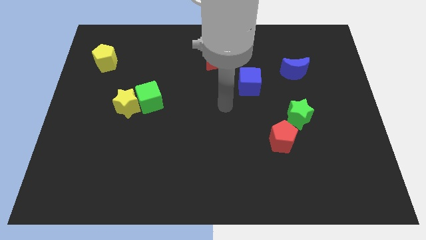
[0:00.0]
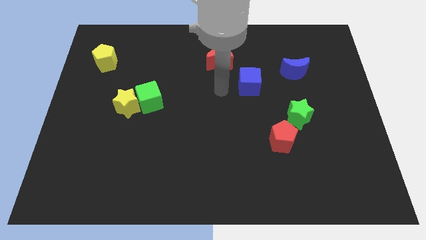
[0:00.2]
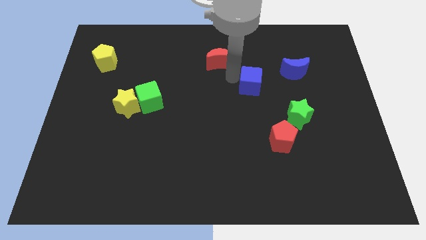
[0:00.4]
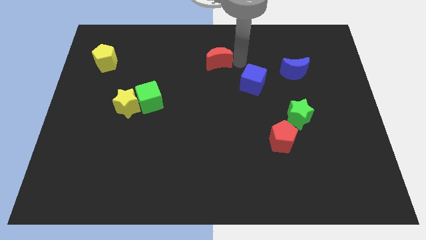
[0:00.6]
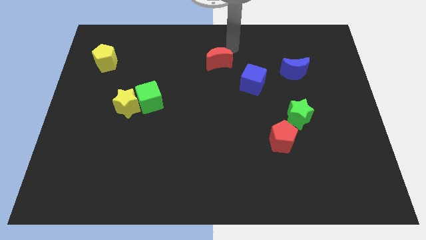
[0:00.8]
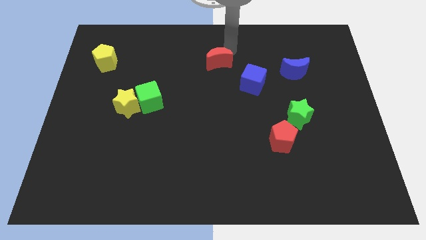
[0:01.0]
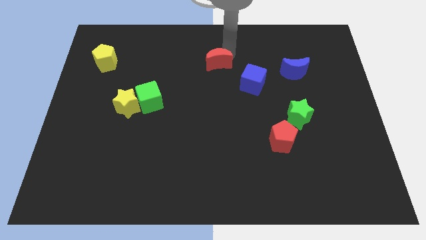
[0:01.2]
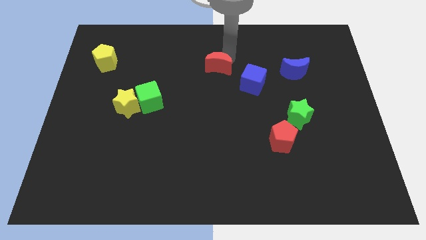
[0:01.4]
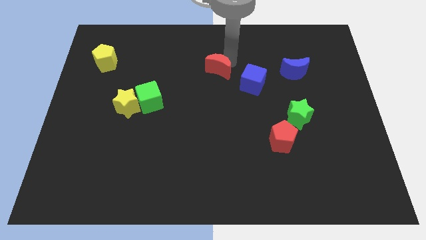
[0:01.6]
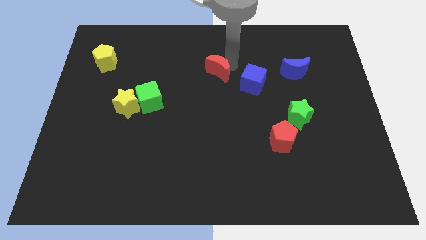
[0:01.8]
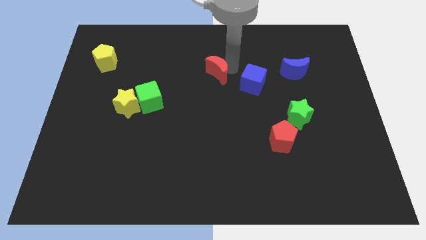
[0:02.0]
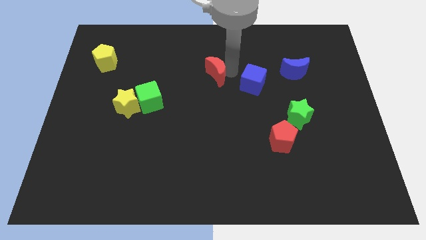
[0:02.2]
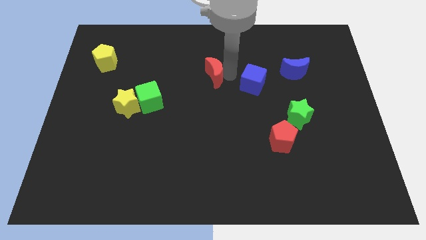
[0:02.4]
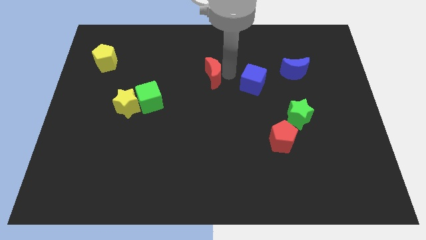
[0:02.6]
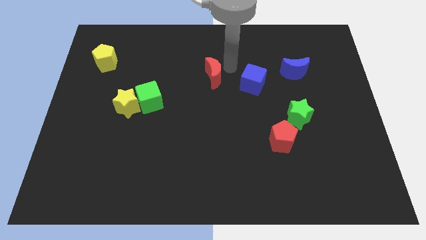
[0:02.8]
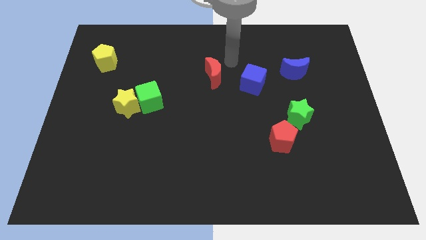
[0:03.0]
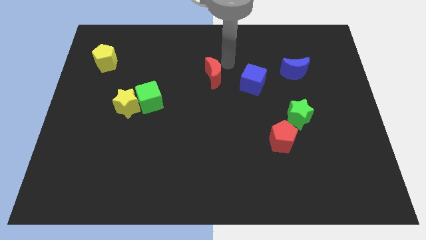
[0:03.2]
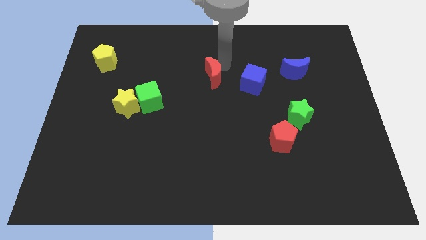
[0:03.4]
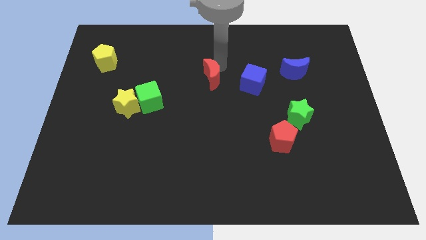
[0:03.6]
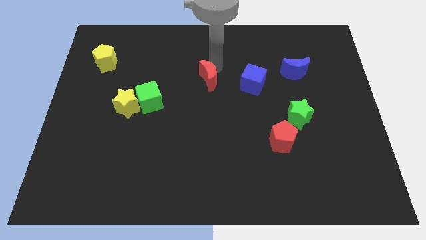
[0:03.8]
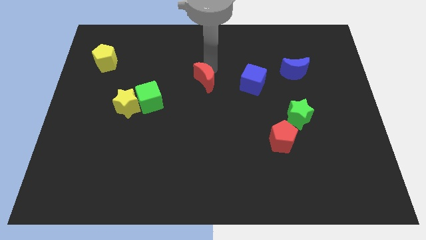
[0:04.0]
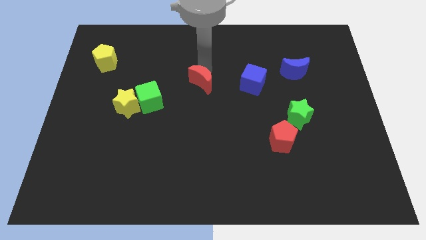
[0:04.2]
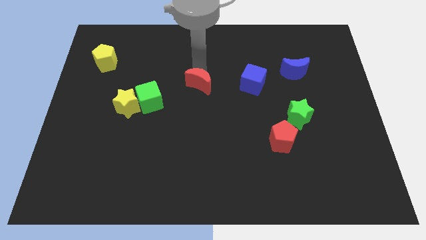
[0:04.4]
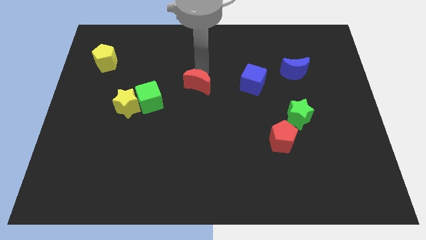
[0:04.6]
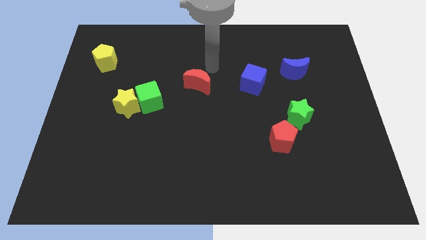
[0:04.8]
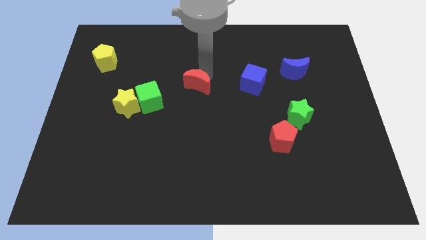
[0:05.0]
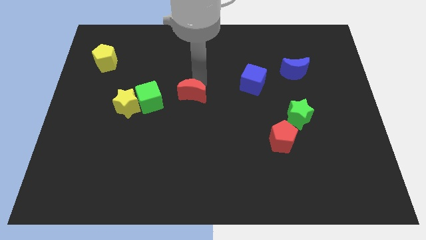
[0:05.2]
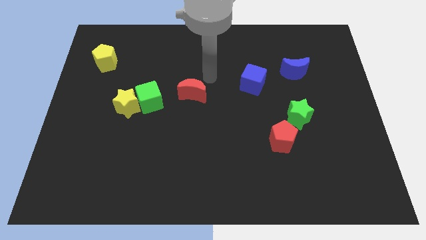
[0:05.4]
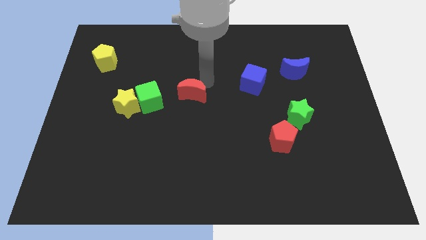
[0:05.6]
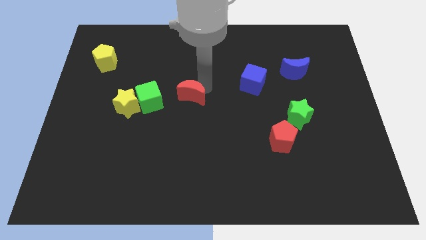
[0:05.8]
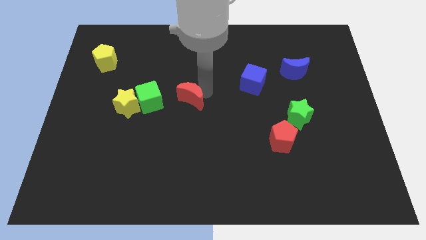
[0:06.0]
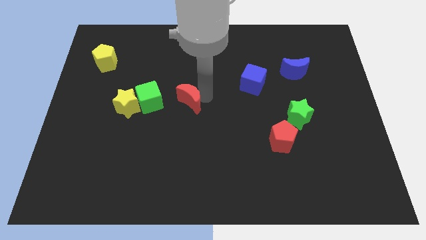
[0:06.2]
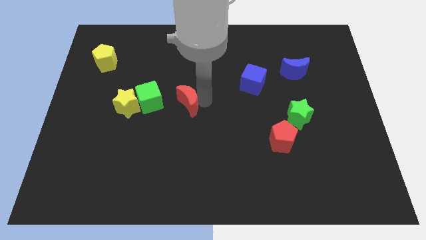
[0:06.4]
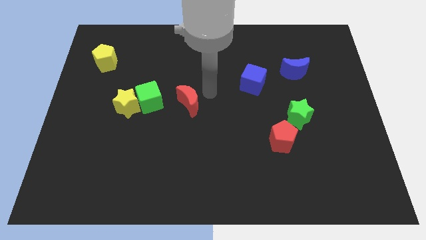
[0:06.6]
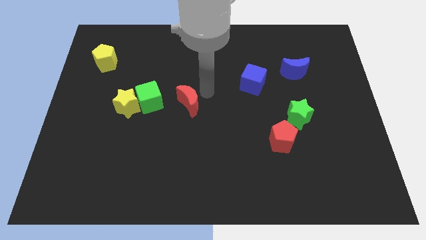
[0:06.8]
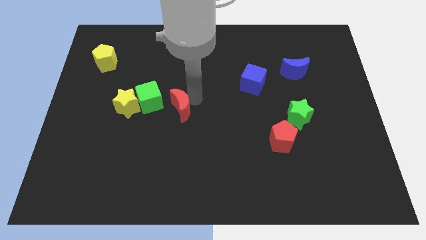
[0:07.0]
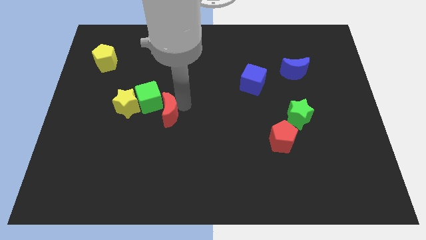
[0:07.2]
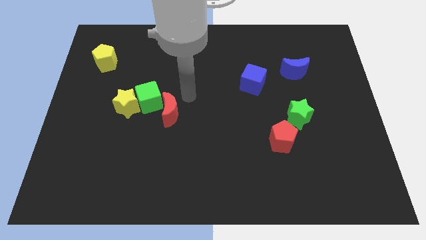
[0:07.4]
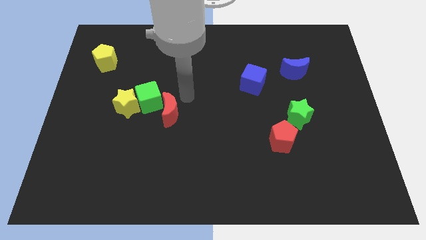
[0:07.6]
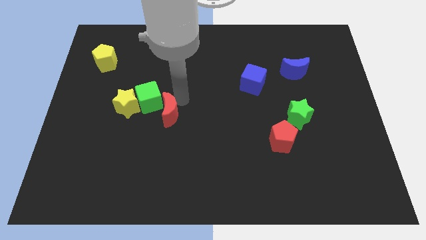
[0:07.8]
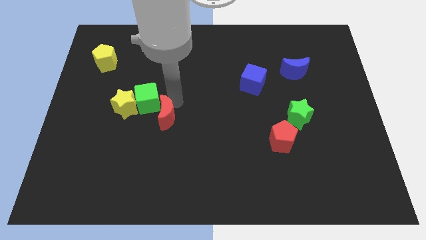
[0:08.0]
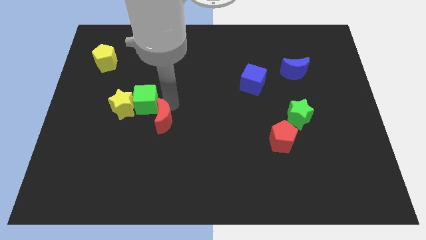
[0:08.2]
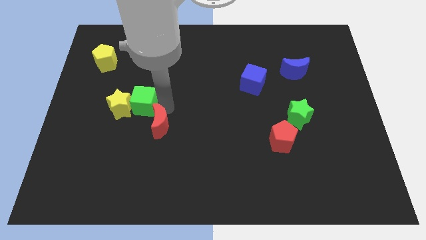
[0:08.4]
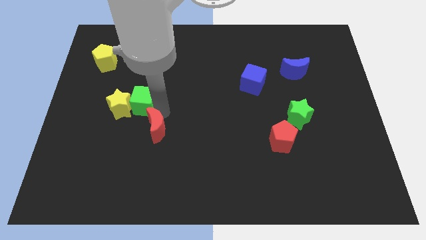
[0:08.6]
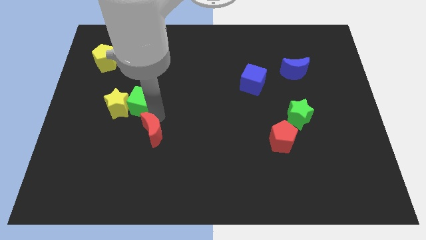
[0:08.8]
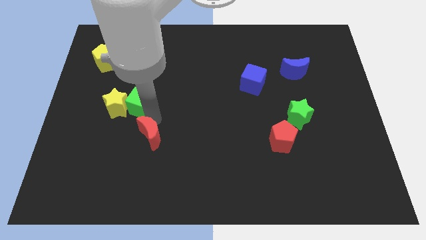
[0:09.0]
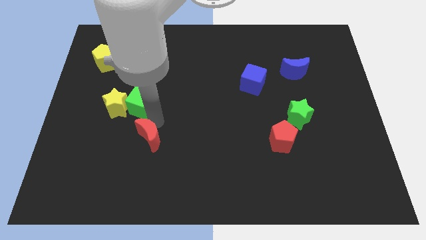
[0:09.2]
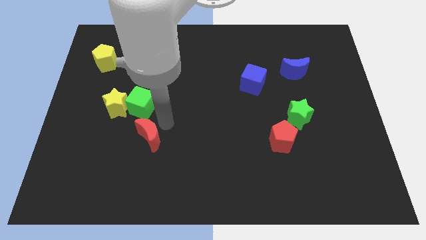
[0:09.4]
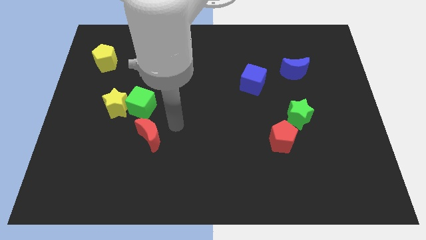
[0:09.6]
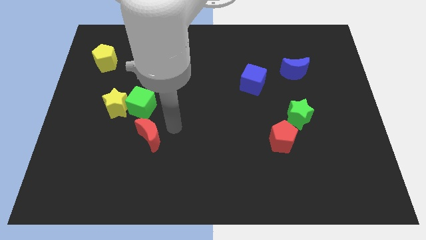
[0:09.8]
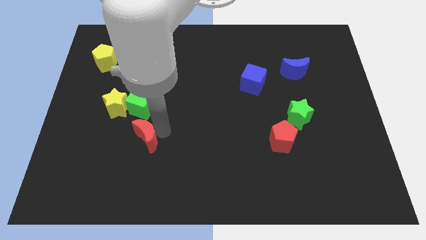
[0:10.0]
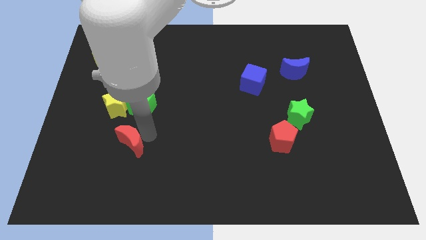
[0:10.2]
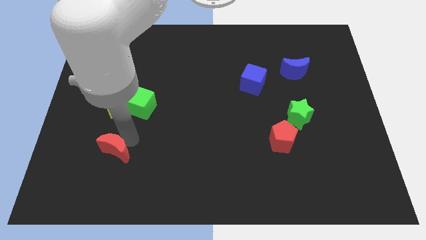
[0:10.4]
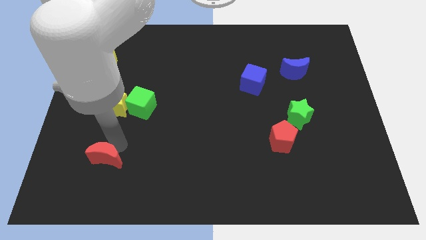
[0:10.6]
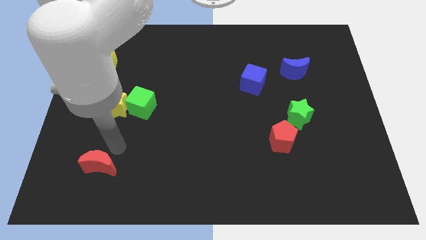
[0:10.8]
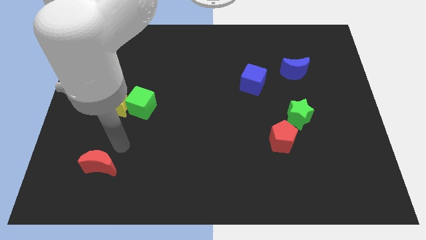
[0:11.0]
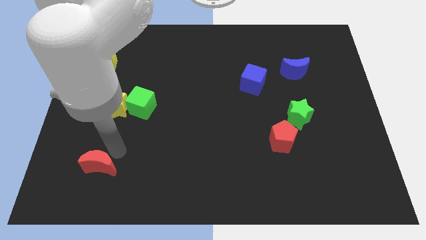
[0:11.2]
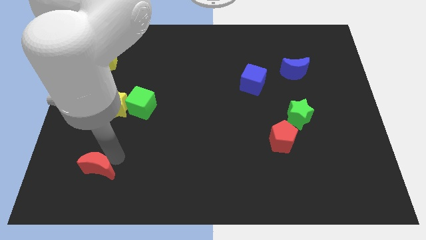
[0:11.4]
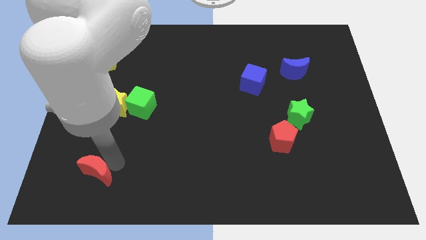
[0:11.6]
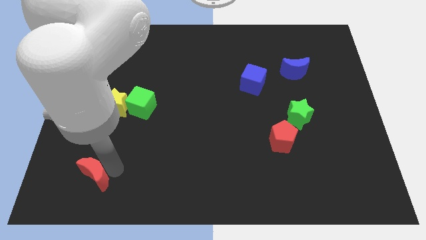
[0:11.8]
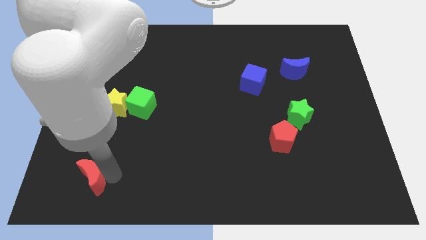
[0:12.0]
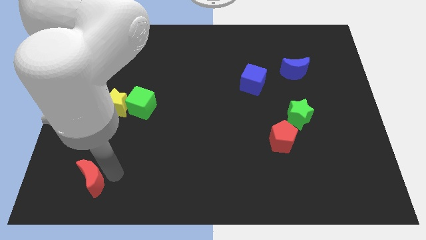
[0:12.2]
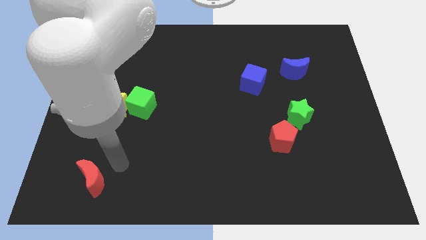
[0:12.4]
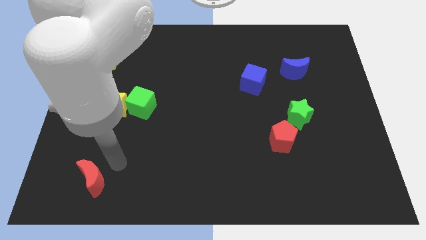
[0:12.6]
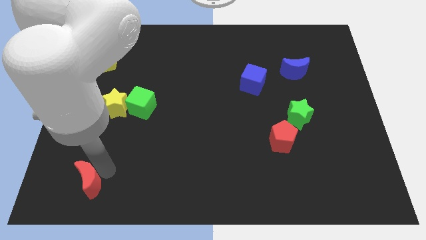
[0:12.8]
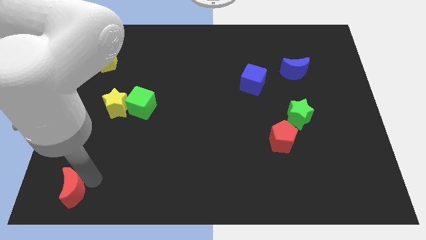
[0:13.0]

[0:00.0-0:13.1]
slide the red moon to the lower left corner

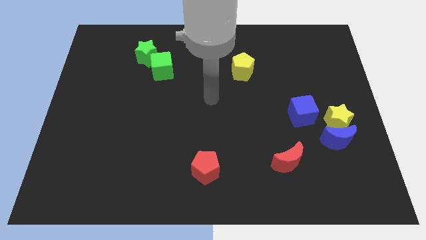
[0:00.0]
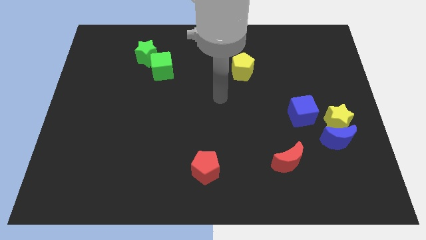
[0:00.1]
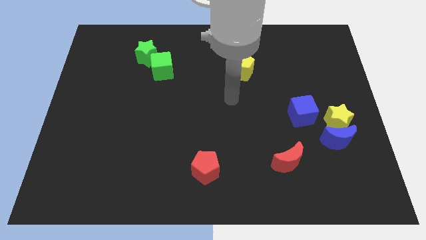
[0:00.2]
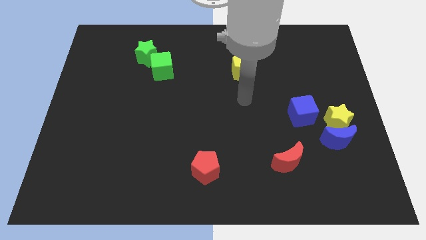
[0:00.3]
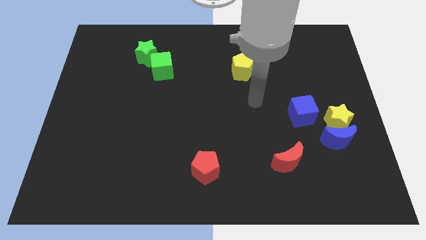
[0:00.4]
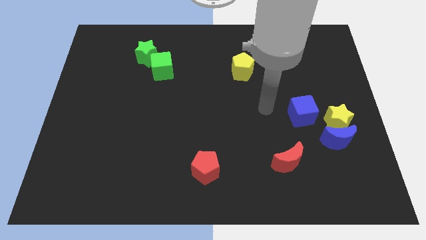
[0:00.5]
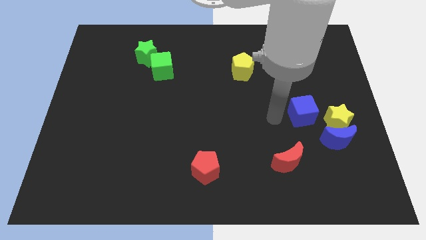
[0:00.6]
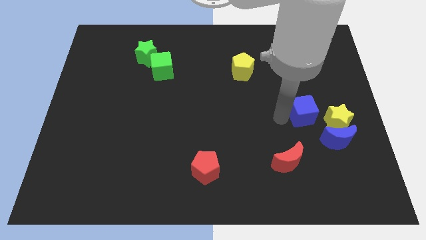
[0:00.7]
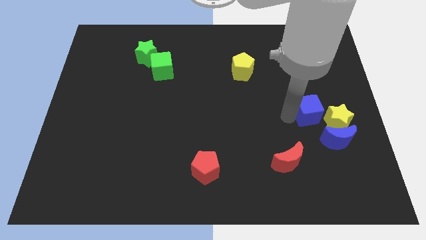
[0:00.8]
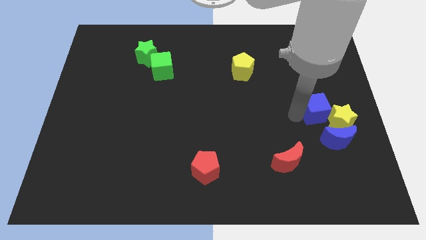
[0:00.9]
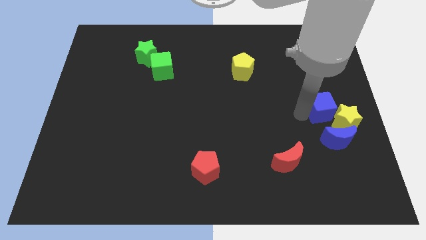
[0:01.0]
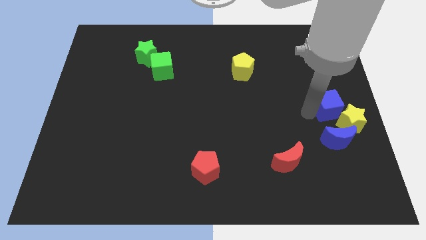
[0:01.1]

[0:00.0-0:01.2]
slide the blue cube to the right side of the board

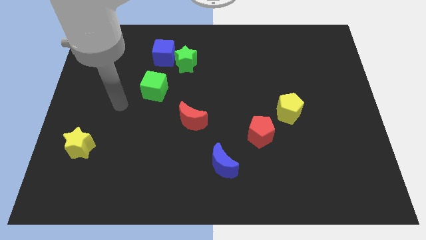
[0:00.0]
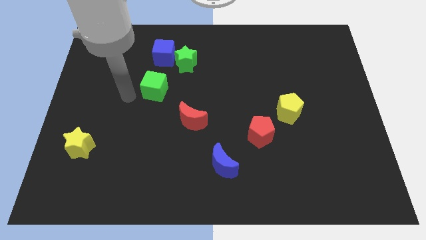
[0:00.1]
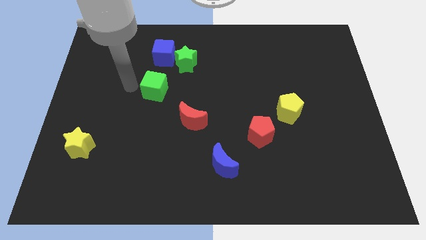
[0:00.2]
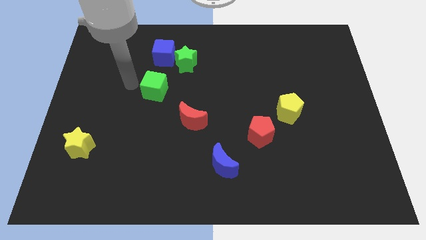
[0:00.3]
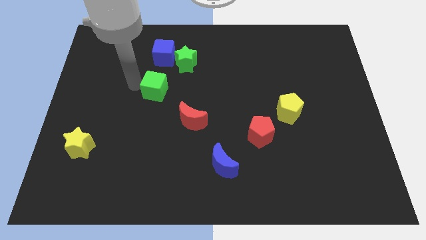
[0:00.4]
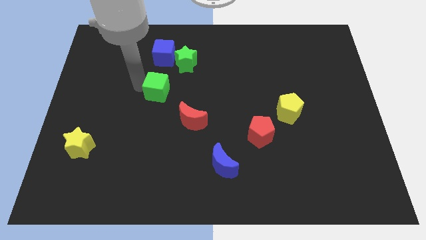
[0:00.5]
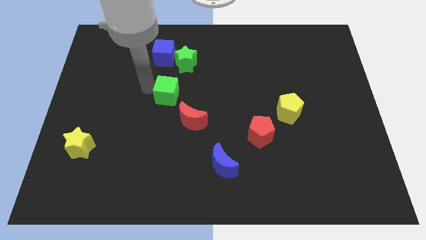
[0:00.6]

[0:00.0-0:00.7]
move the green cube to the middle of the board
